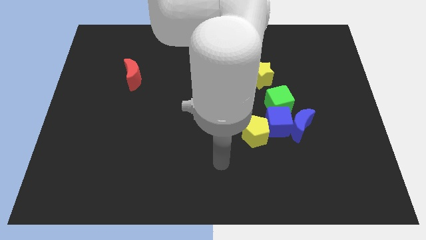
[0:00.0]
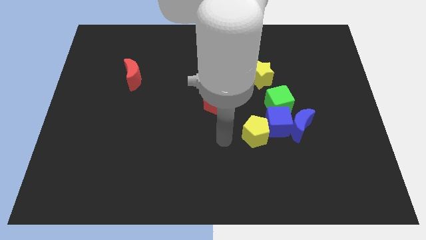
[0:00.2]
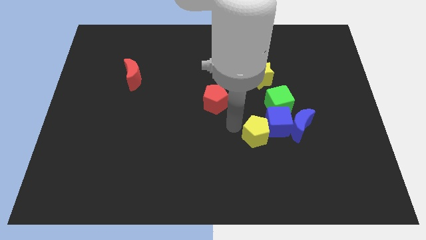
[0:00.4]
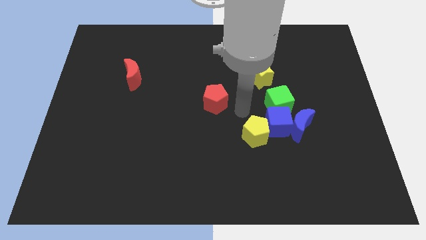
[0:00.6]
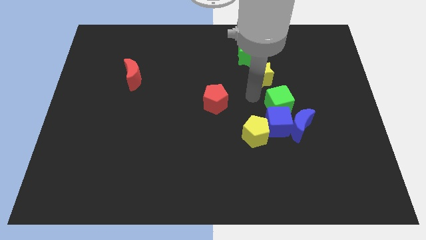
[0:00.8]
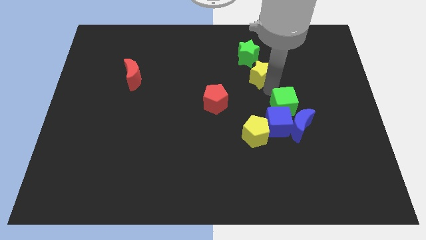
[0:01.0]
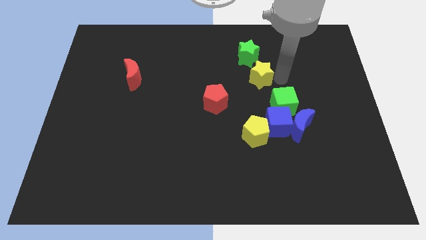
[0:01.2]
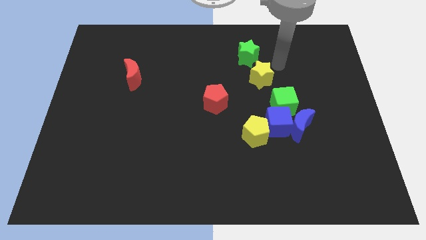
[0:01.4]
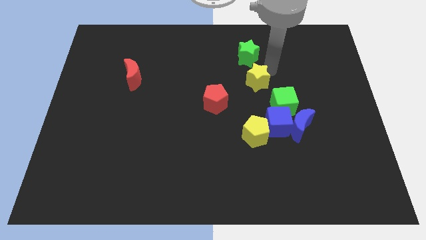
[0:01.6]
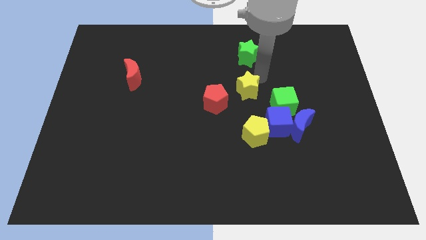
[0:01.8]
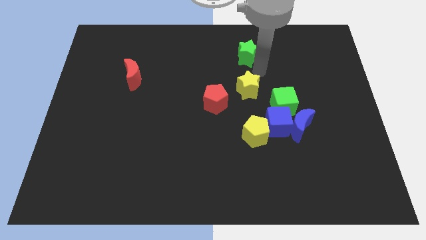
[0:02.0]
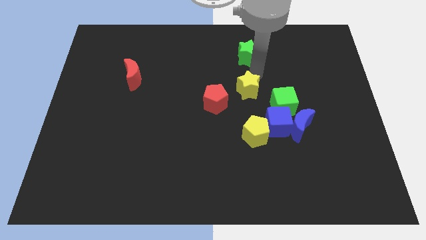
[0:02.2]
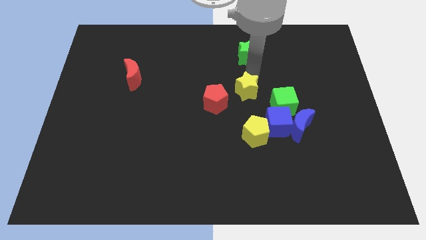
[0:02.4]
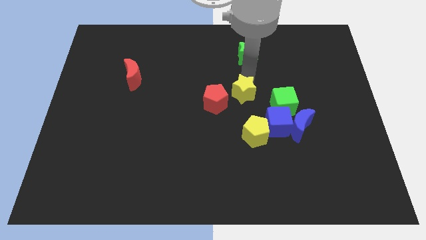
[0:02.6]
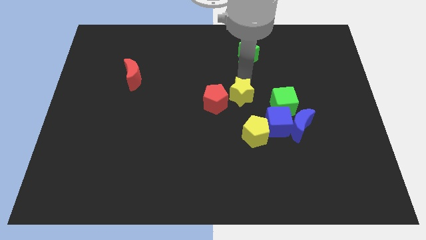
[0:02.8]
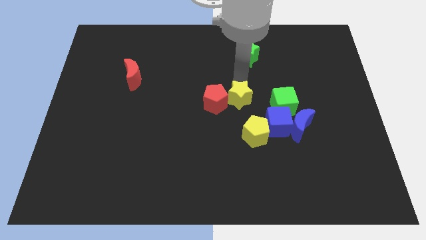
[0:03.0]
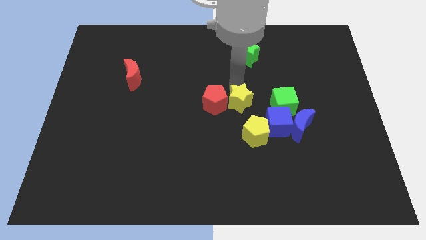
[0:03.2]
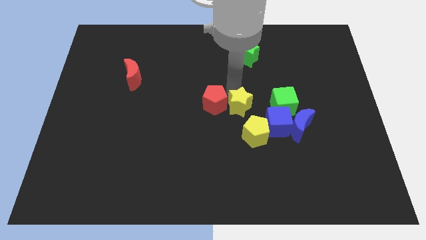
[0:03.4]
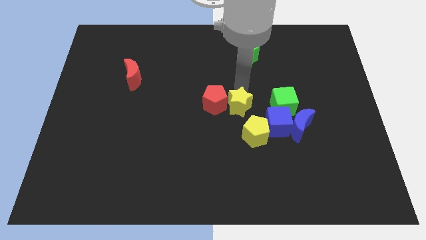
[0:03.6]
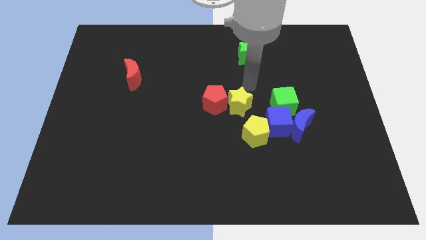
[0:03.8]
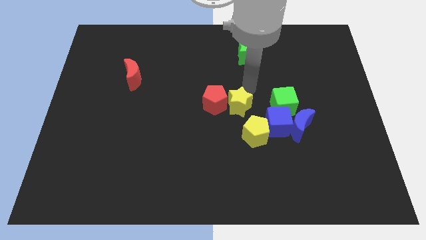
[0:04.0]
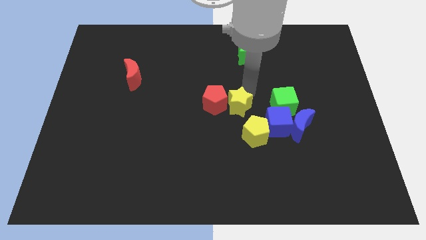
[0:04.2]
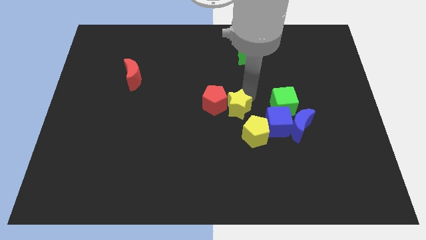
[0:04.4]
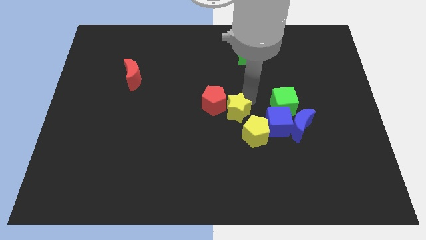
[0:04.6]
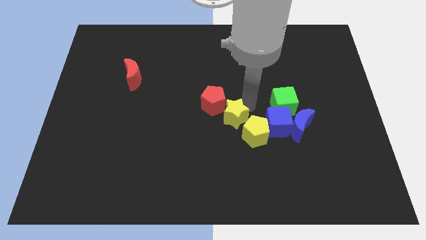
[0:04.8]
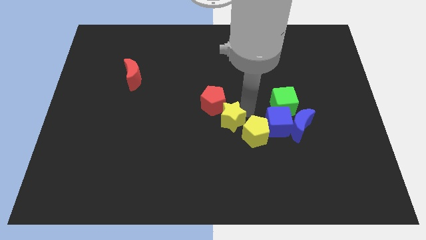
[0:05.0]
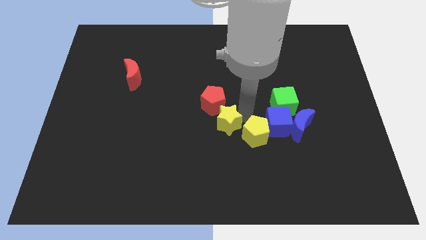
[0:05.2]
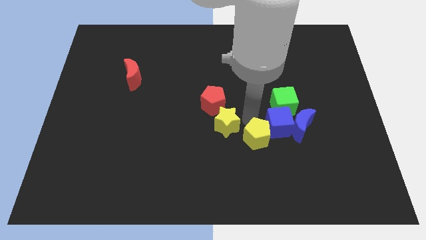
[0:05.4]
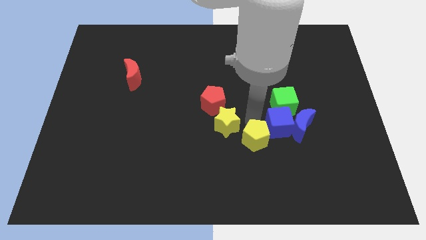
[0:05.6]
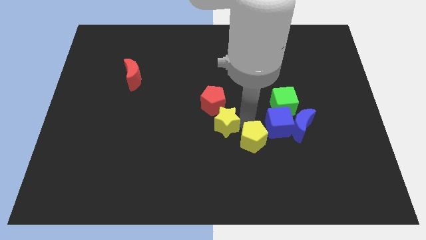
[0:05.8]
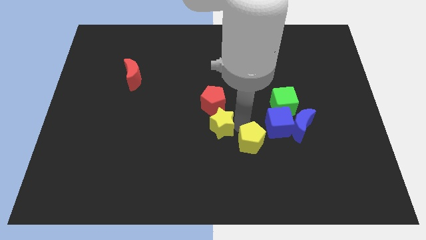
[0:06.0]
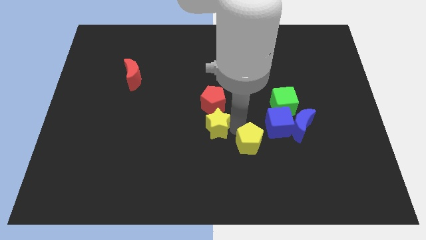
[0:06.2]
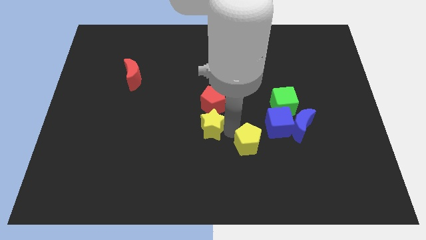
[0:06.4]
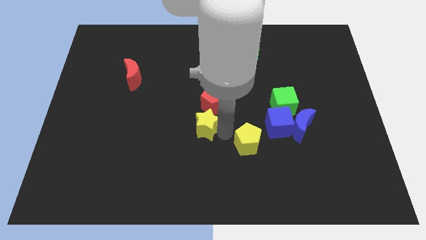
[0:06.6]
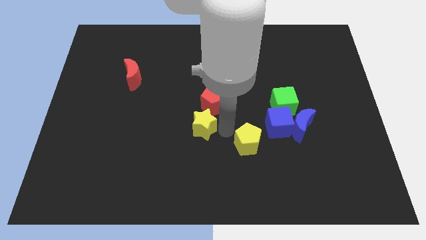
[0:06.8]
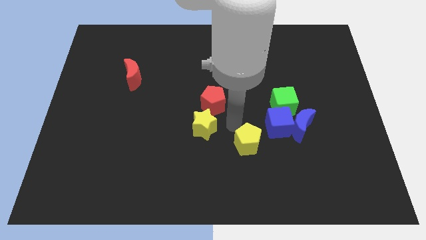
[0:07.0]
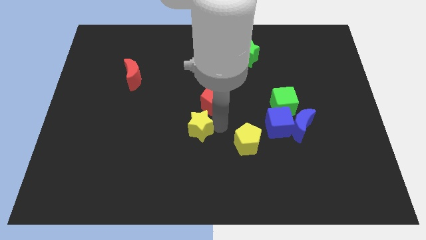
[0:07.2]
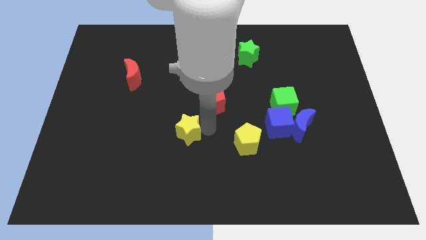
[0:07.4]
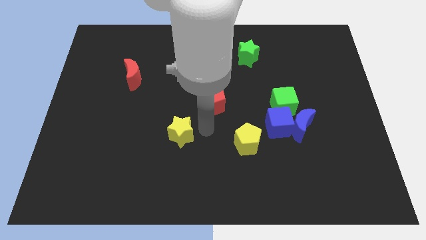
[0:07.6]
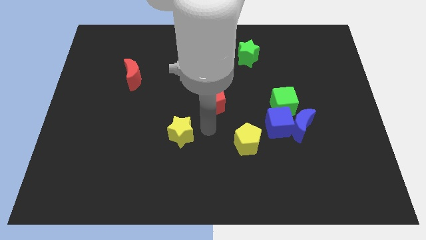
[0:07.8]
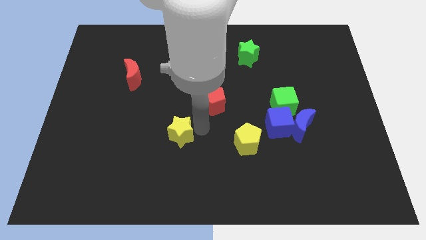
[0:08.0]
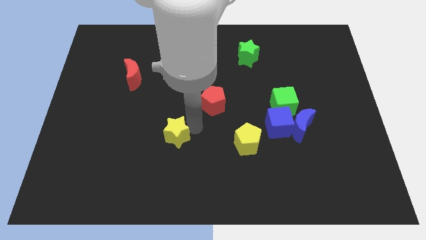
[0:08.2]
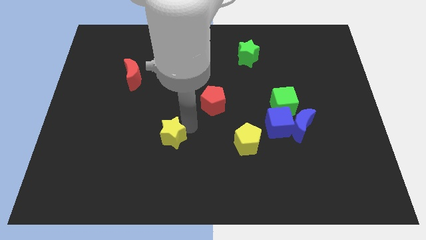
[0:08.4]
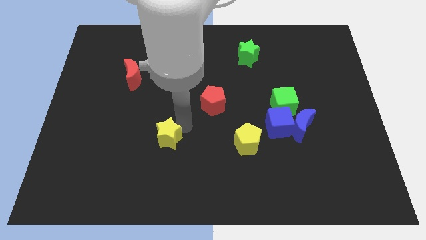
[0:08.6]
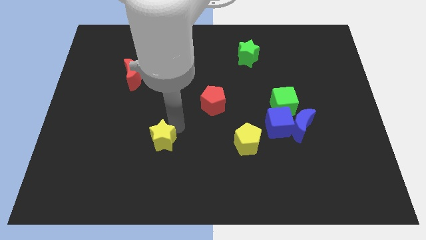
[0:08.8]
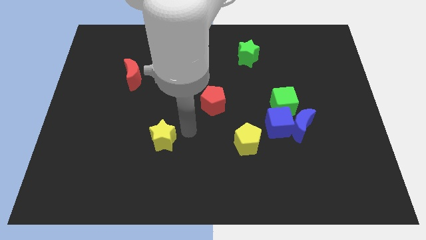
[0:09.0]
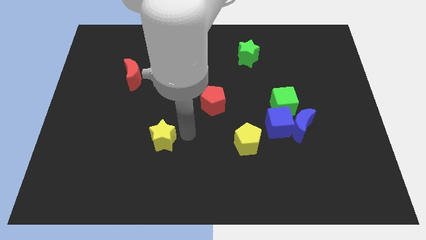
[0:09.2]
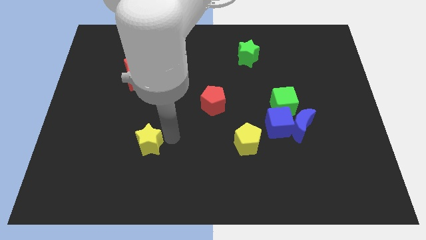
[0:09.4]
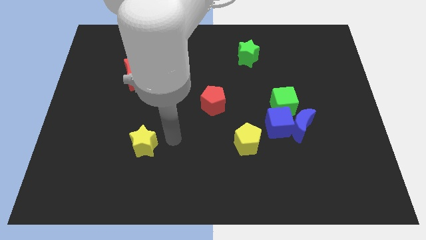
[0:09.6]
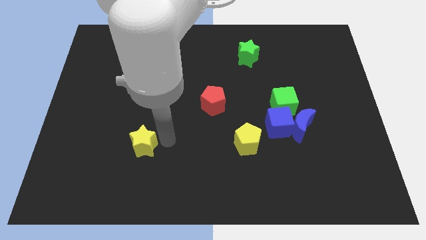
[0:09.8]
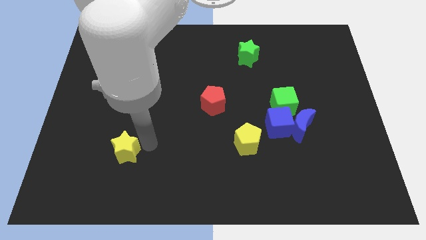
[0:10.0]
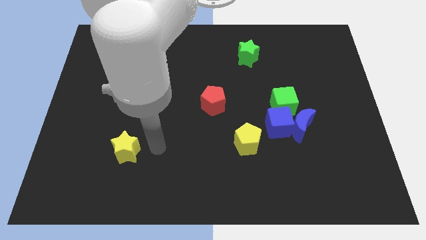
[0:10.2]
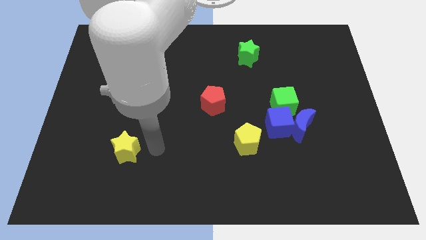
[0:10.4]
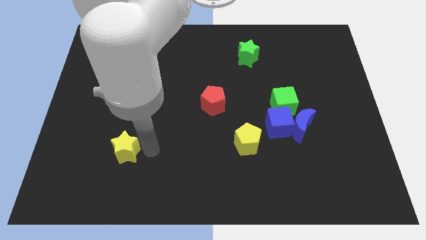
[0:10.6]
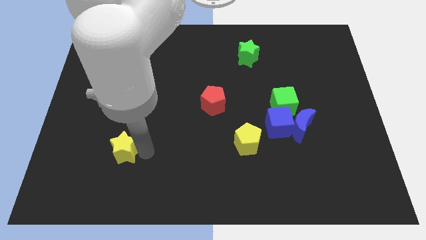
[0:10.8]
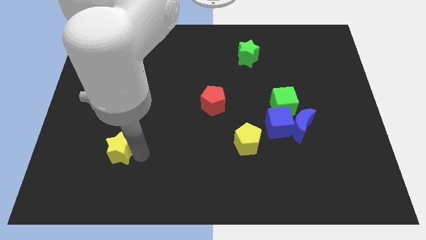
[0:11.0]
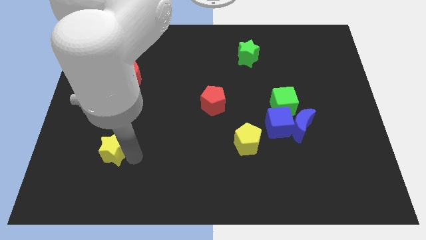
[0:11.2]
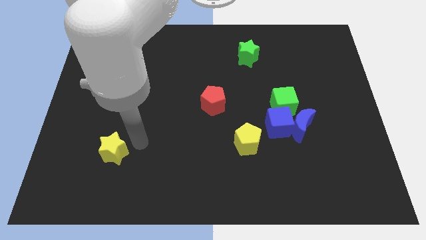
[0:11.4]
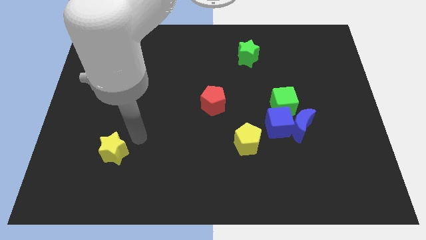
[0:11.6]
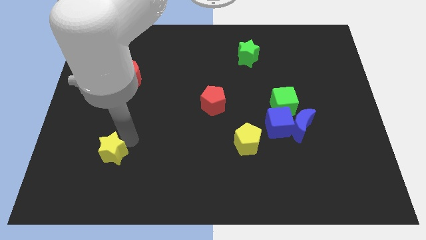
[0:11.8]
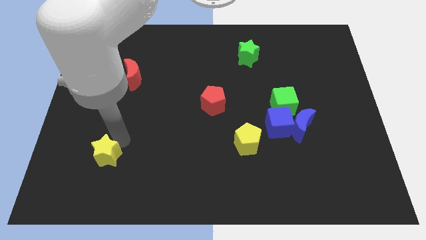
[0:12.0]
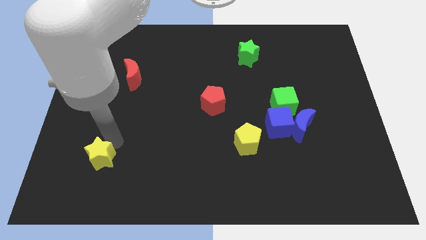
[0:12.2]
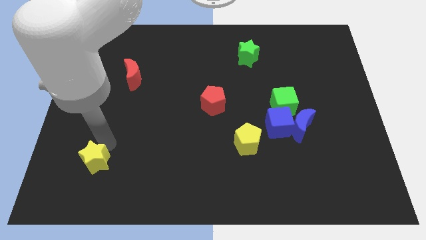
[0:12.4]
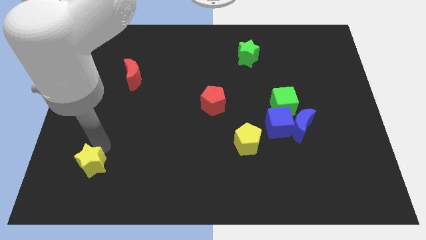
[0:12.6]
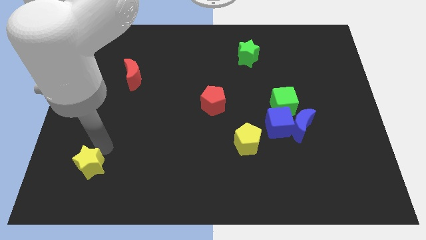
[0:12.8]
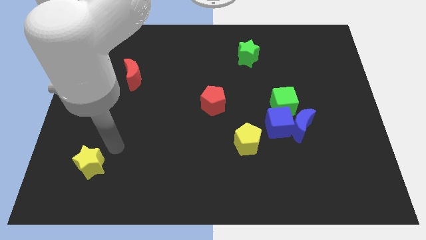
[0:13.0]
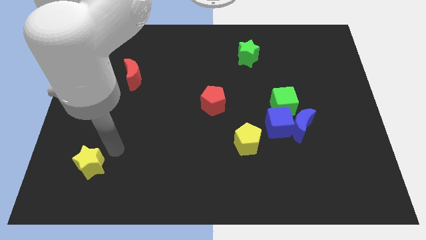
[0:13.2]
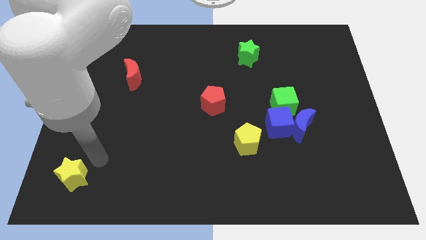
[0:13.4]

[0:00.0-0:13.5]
push the yellow star to the bottom left of the board
